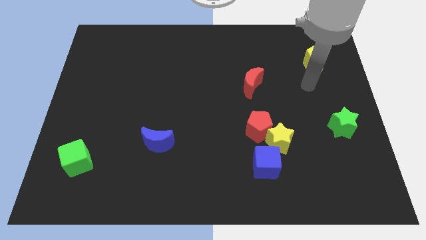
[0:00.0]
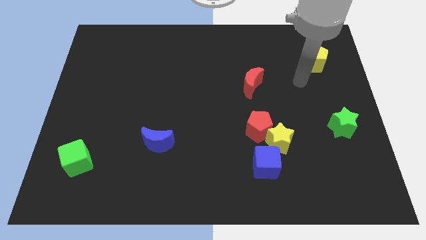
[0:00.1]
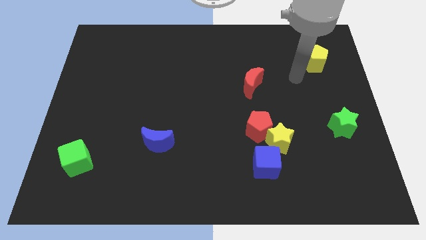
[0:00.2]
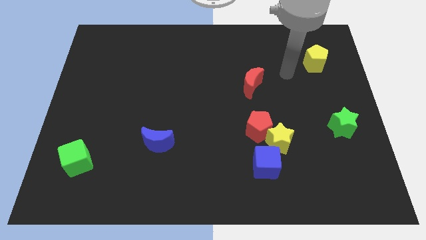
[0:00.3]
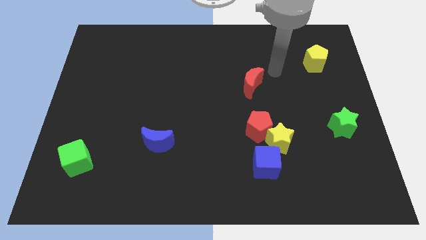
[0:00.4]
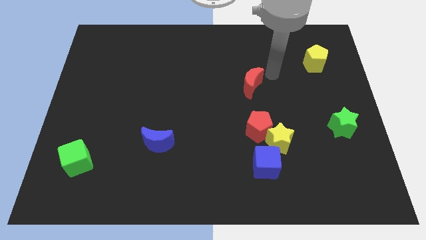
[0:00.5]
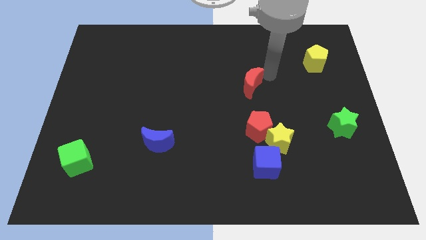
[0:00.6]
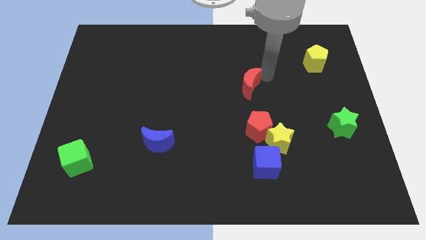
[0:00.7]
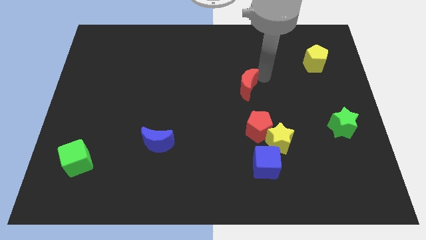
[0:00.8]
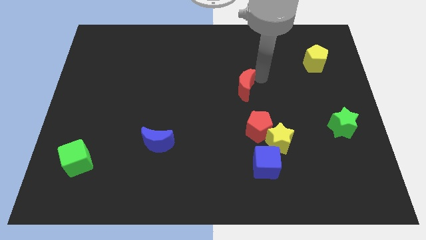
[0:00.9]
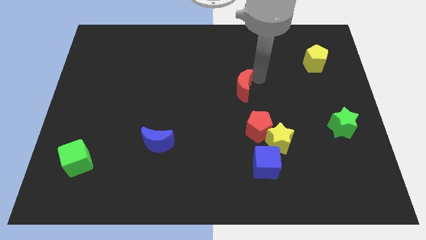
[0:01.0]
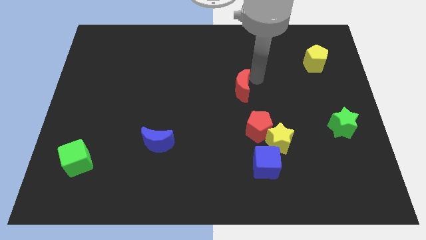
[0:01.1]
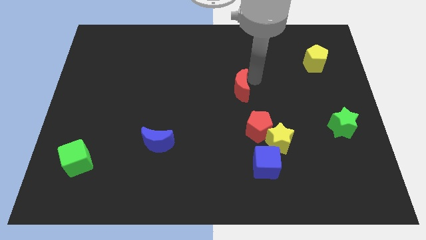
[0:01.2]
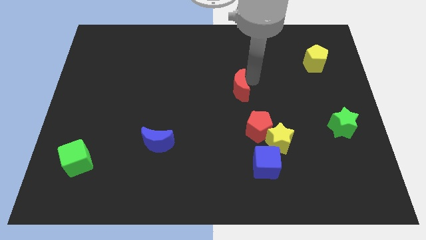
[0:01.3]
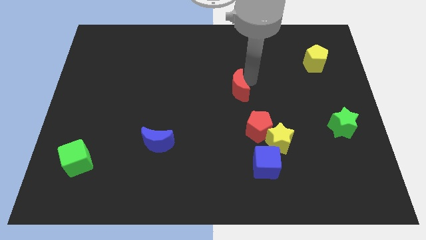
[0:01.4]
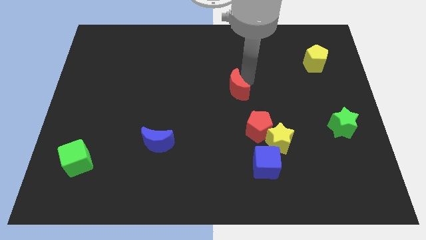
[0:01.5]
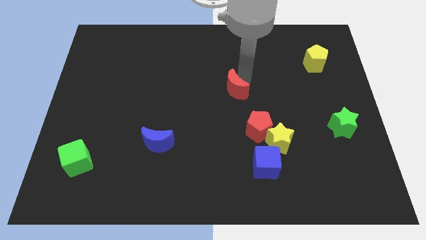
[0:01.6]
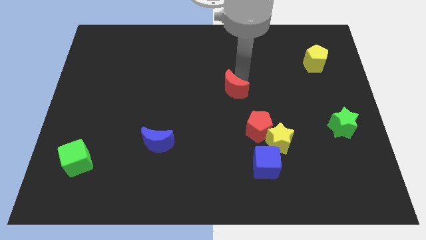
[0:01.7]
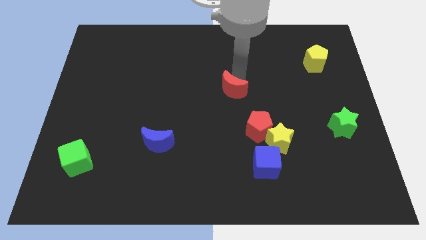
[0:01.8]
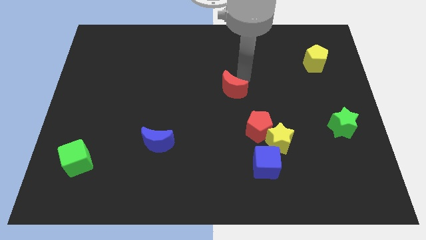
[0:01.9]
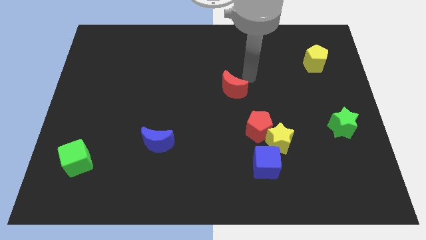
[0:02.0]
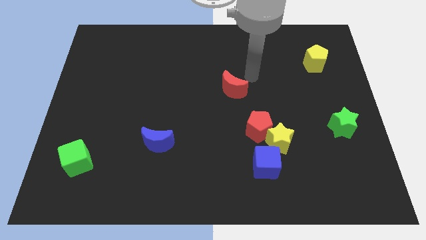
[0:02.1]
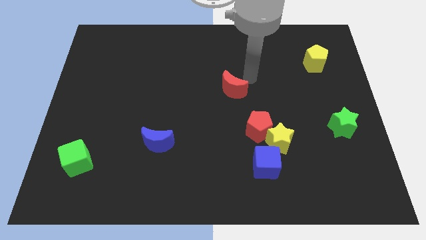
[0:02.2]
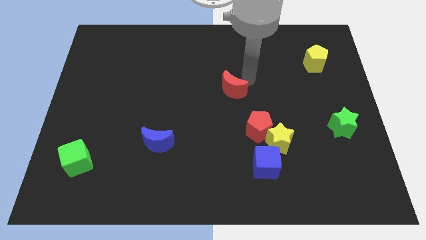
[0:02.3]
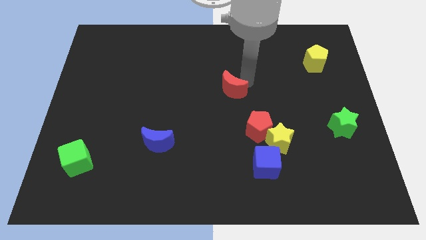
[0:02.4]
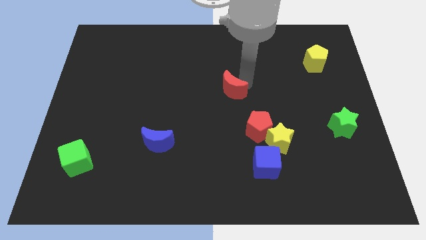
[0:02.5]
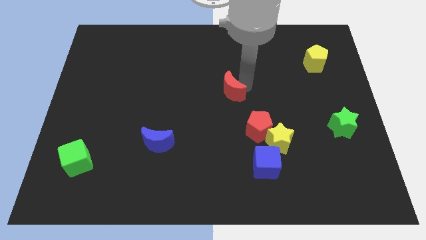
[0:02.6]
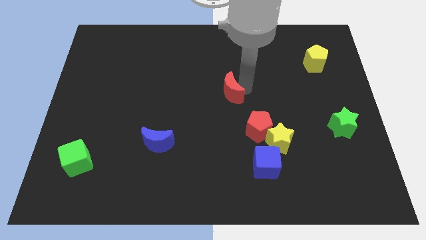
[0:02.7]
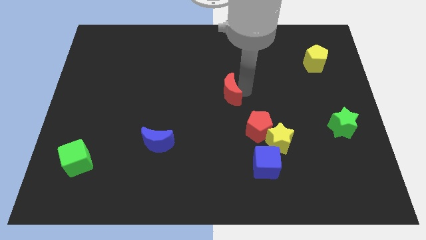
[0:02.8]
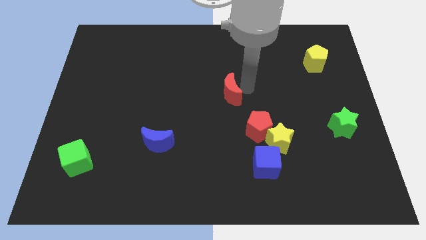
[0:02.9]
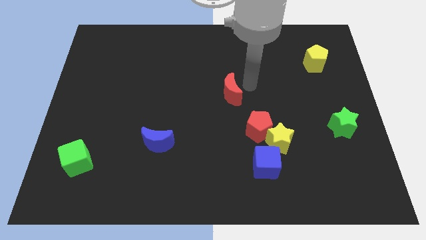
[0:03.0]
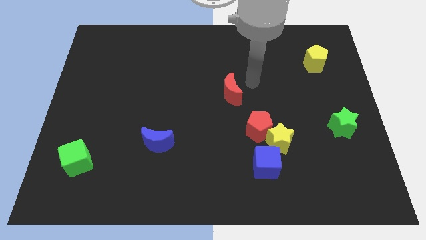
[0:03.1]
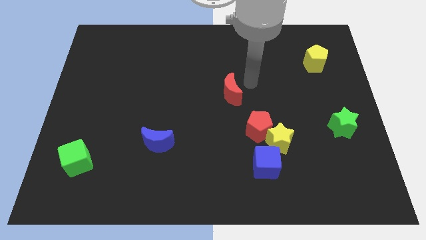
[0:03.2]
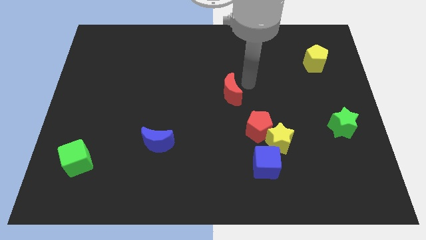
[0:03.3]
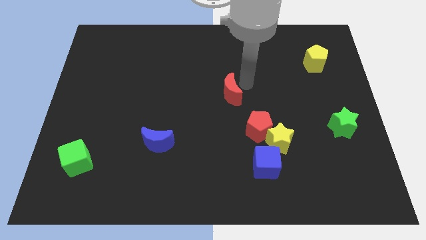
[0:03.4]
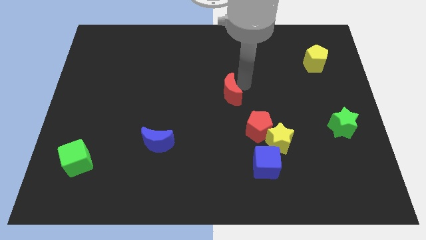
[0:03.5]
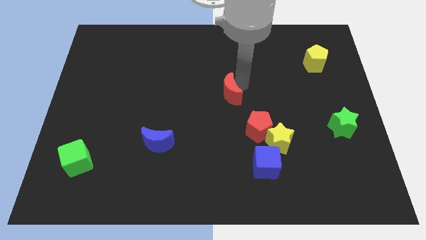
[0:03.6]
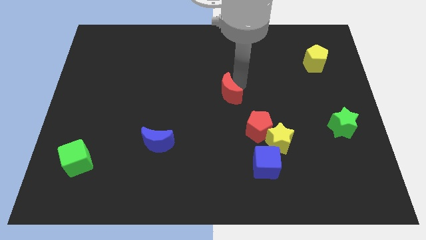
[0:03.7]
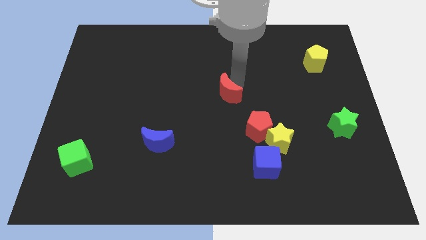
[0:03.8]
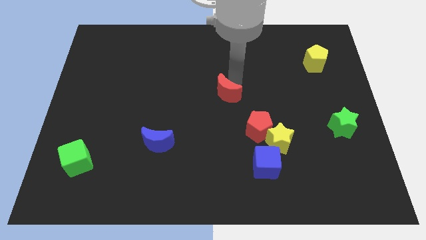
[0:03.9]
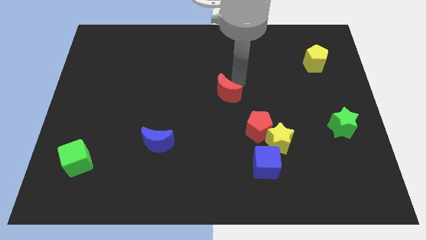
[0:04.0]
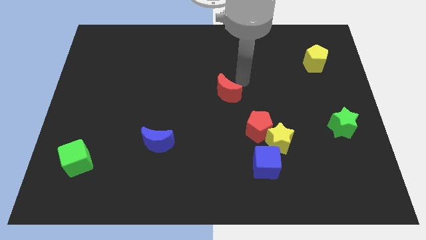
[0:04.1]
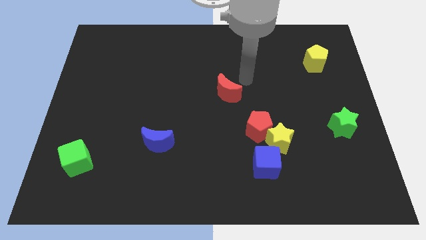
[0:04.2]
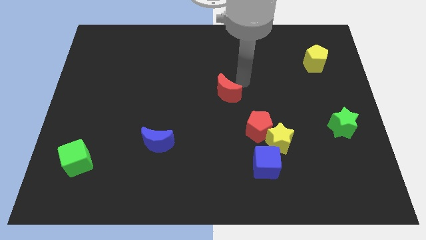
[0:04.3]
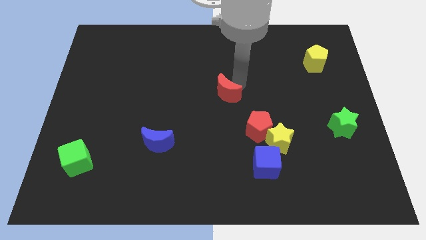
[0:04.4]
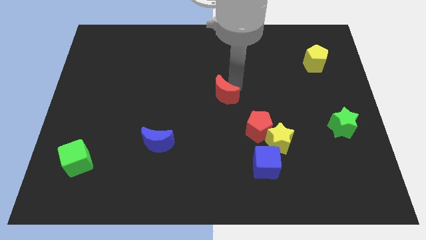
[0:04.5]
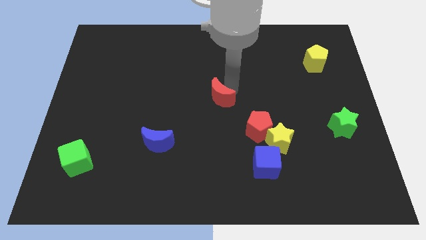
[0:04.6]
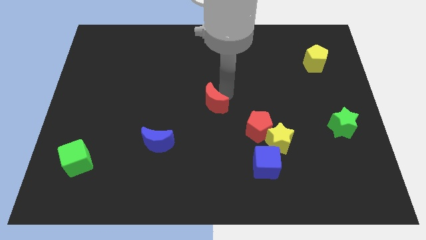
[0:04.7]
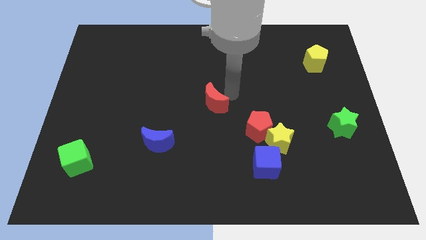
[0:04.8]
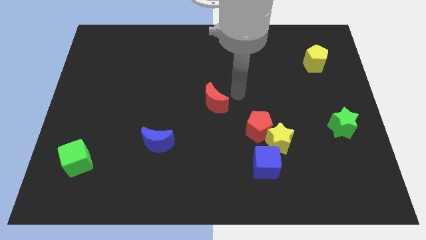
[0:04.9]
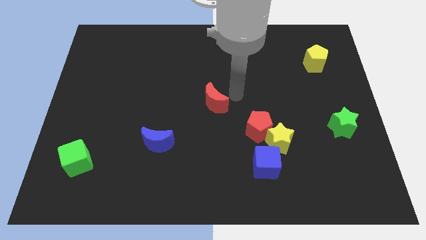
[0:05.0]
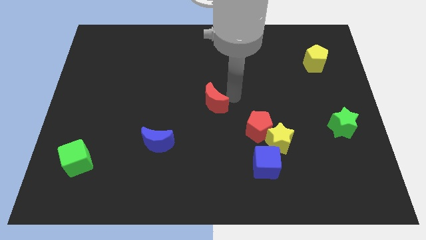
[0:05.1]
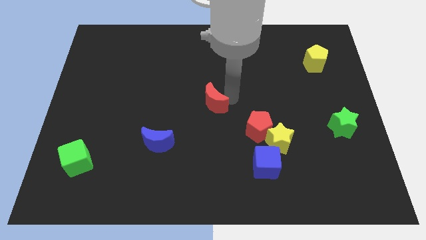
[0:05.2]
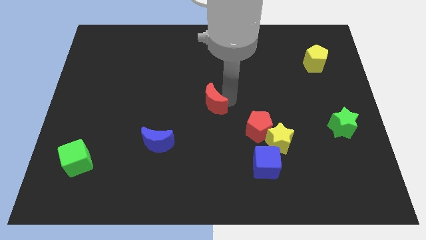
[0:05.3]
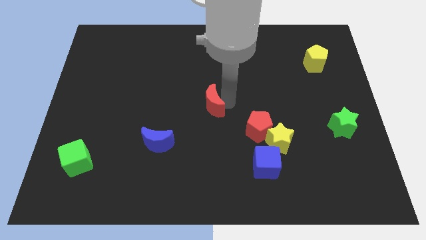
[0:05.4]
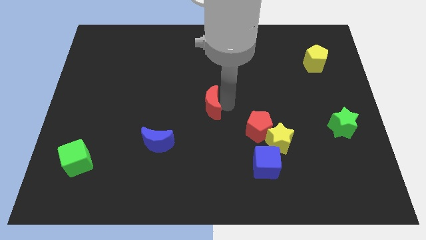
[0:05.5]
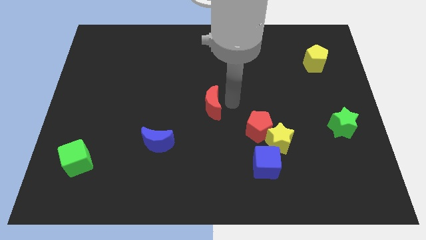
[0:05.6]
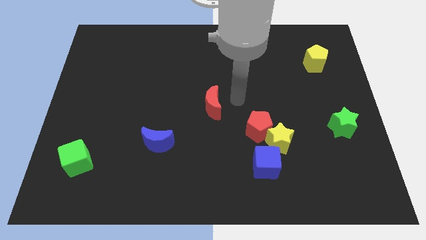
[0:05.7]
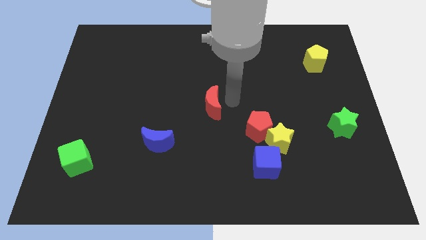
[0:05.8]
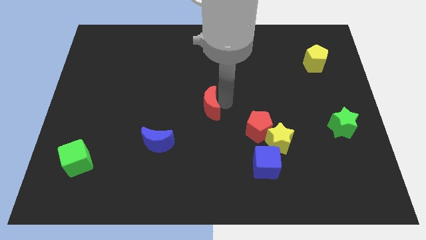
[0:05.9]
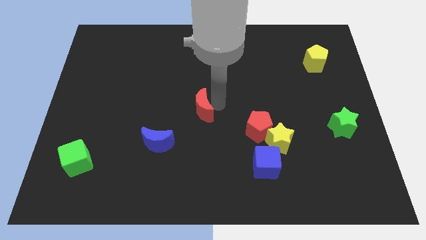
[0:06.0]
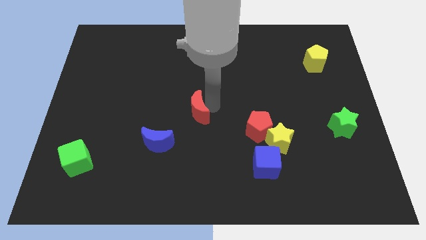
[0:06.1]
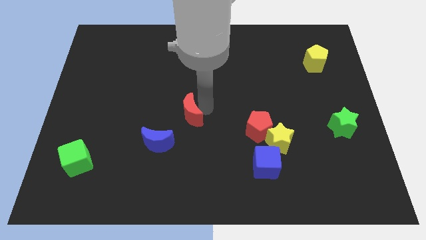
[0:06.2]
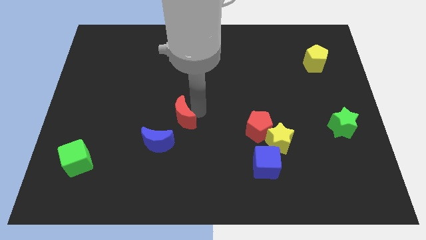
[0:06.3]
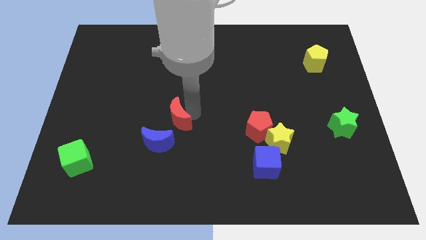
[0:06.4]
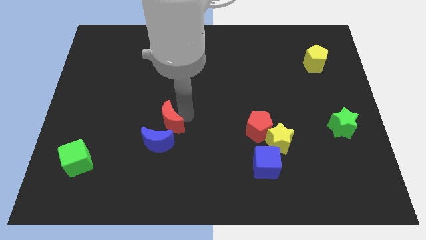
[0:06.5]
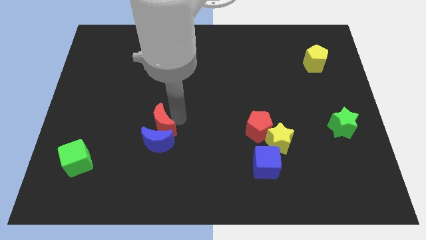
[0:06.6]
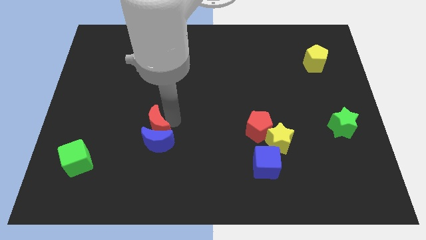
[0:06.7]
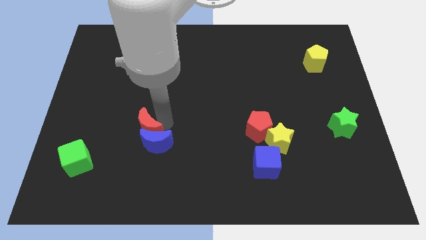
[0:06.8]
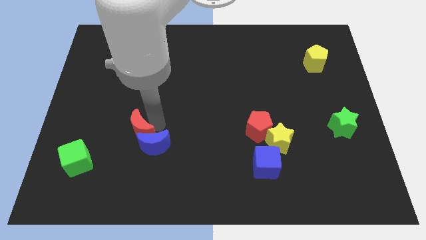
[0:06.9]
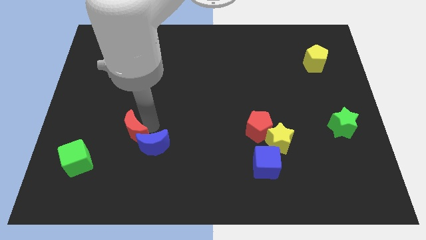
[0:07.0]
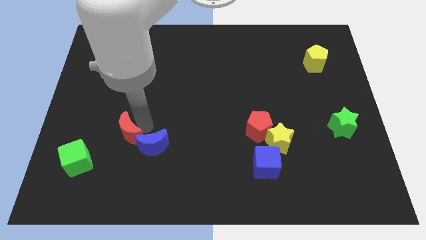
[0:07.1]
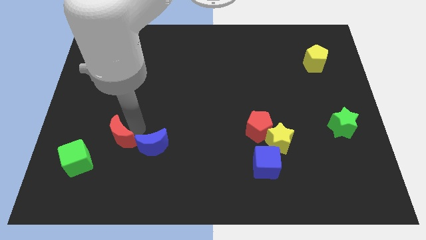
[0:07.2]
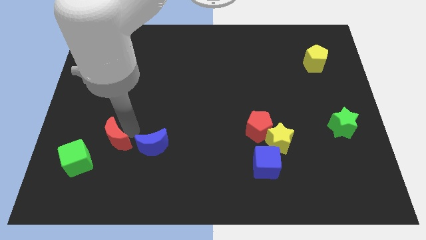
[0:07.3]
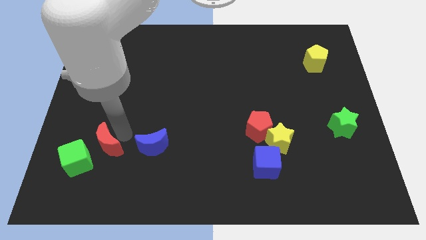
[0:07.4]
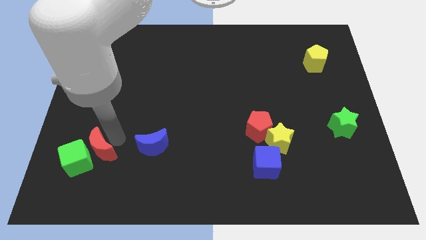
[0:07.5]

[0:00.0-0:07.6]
put the red moon next to the green cube

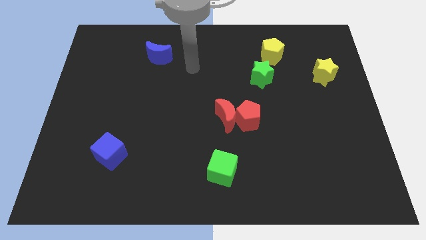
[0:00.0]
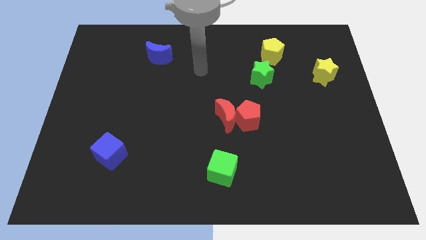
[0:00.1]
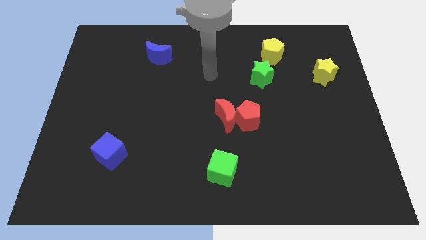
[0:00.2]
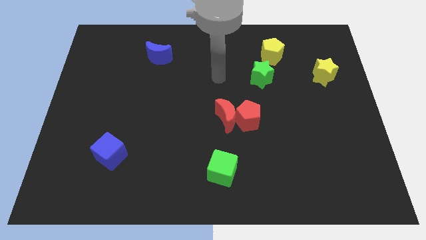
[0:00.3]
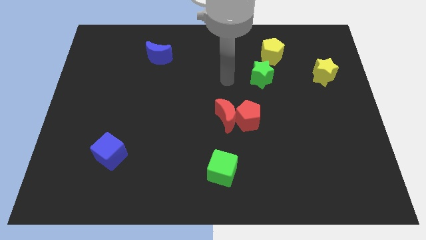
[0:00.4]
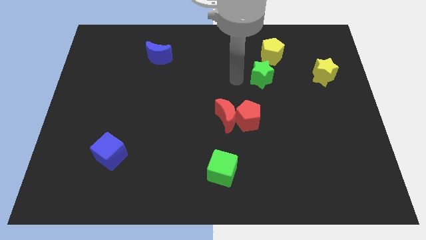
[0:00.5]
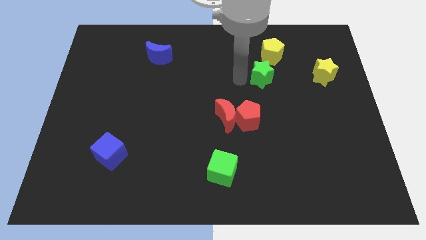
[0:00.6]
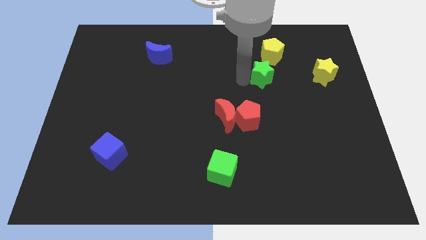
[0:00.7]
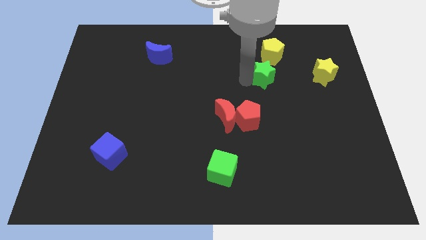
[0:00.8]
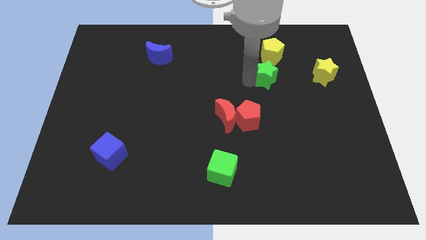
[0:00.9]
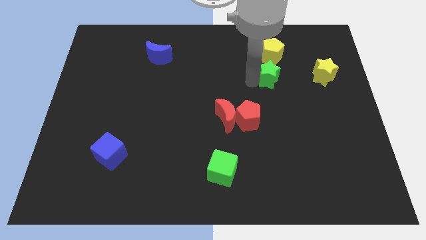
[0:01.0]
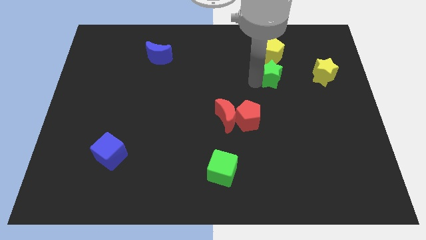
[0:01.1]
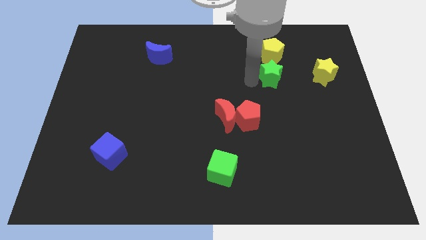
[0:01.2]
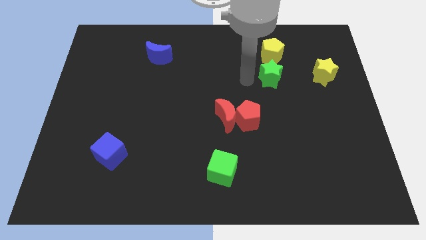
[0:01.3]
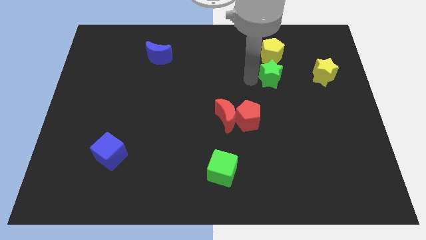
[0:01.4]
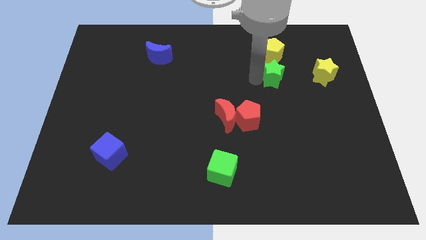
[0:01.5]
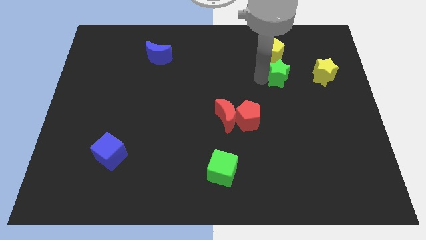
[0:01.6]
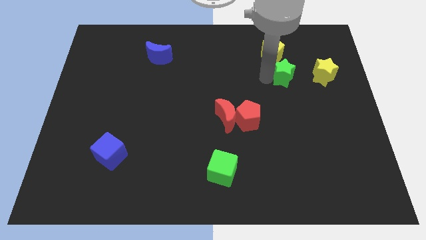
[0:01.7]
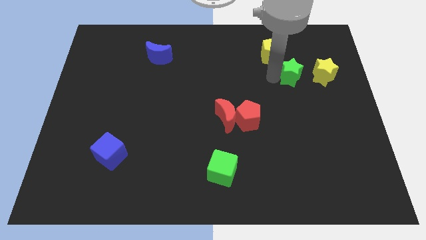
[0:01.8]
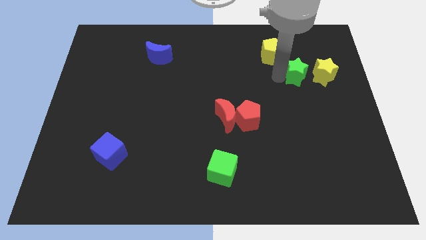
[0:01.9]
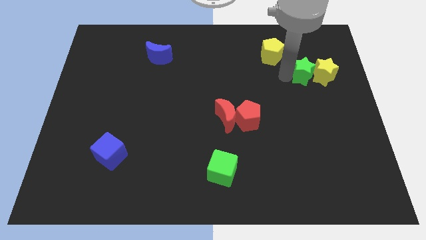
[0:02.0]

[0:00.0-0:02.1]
slide the green star towards the yellow star
